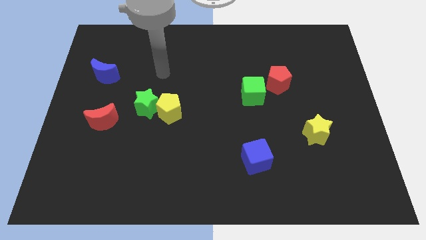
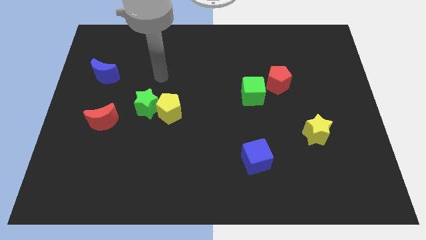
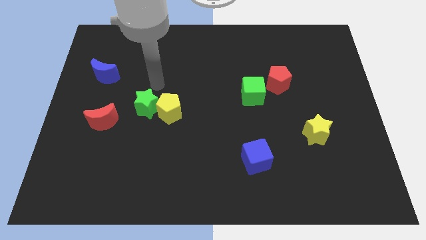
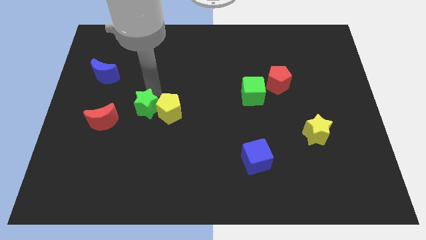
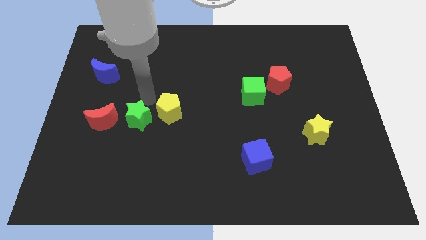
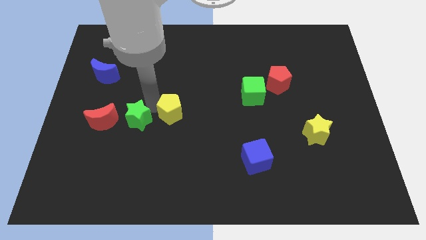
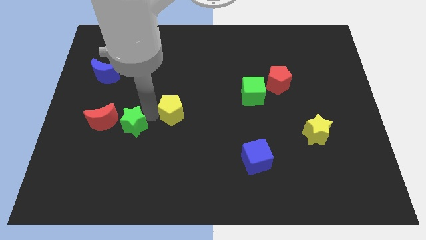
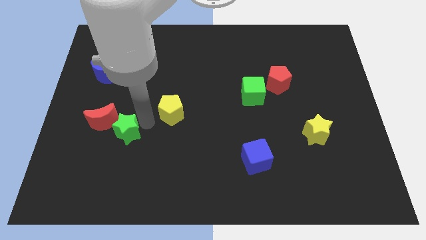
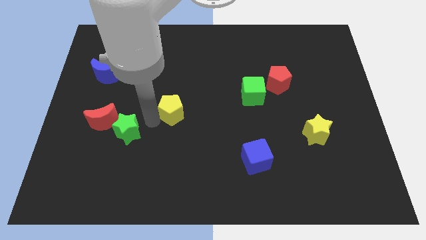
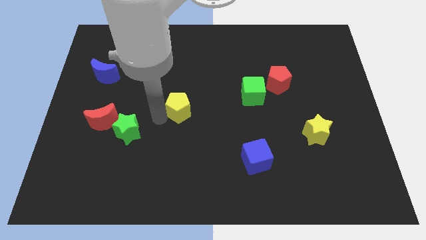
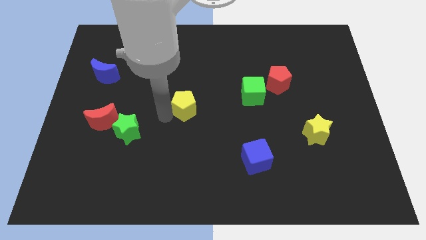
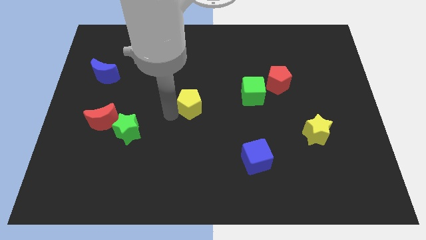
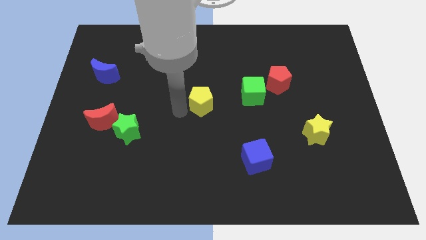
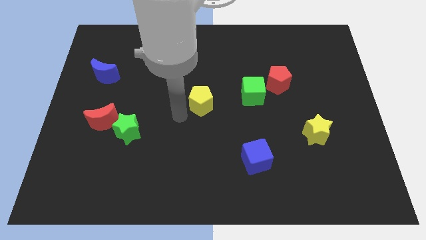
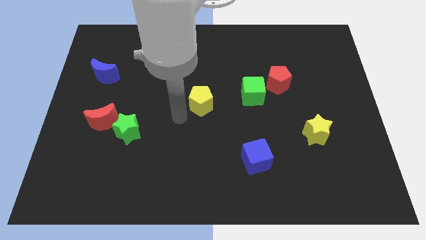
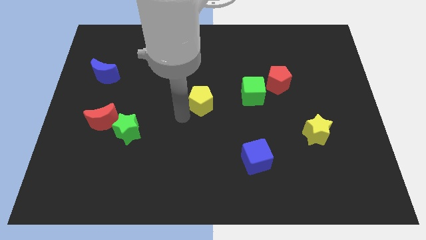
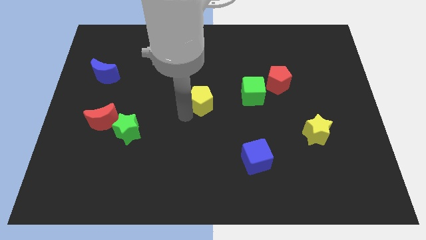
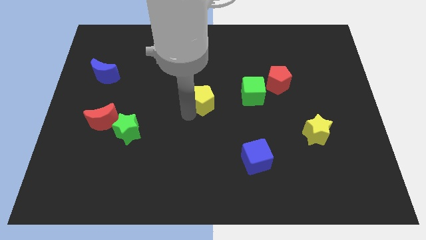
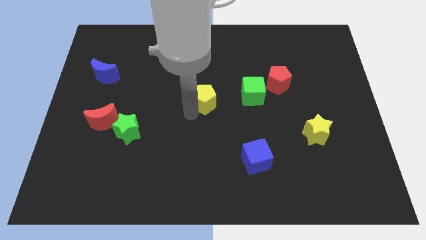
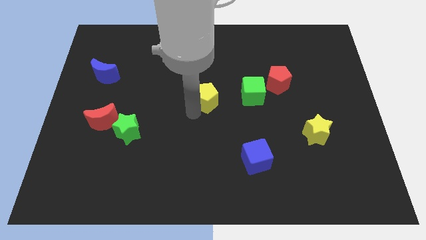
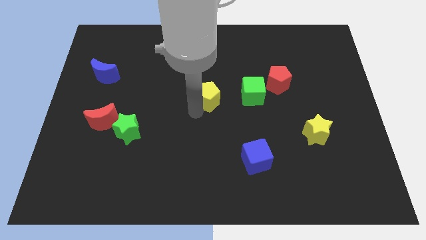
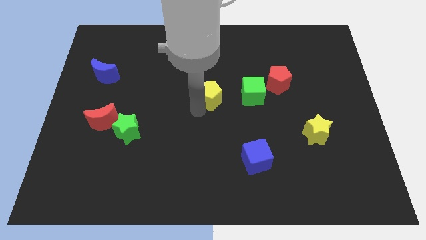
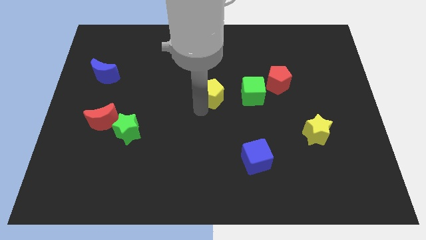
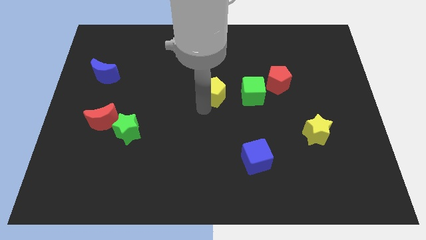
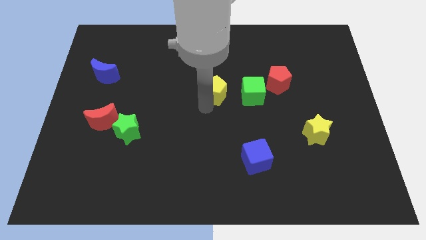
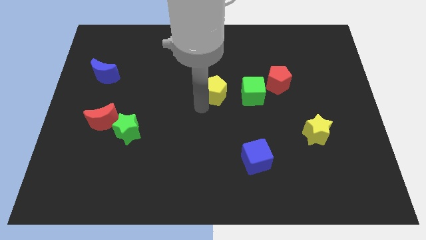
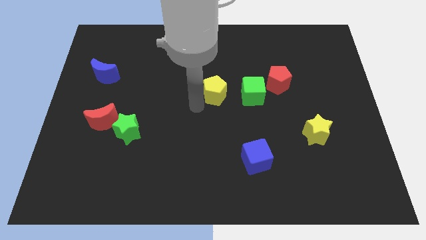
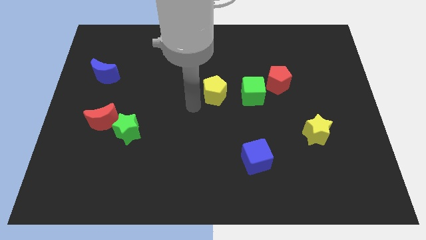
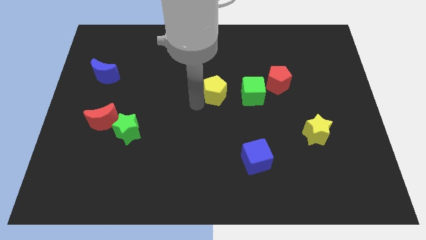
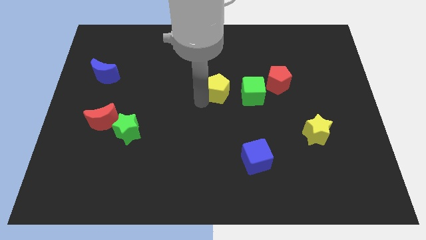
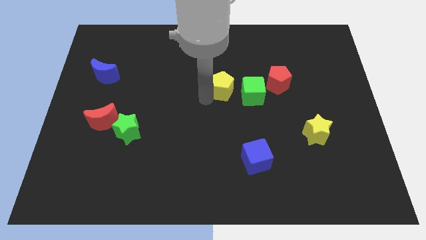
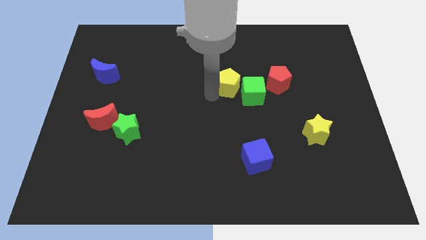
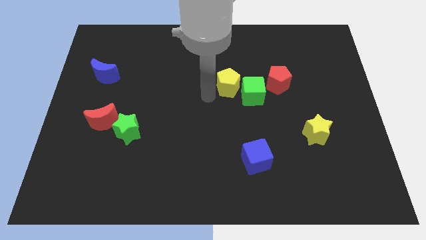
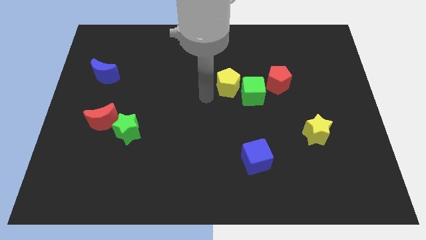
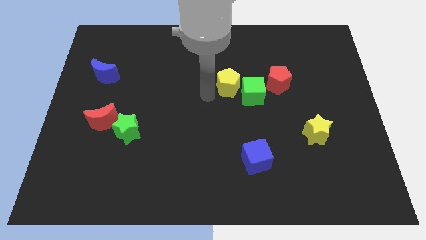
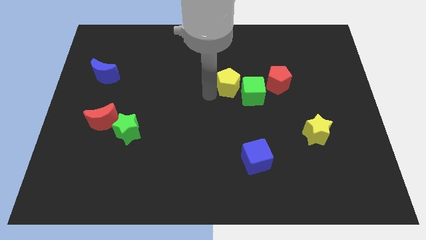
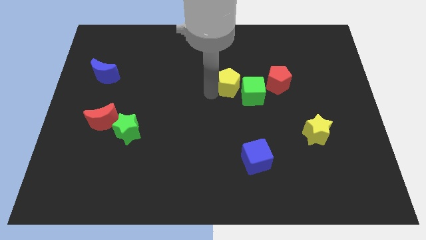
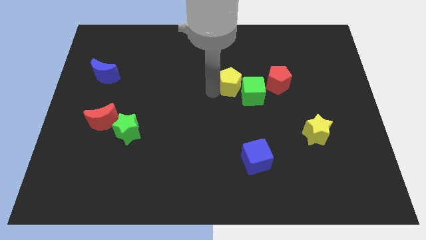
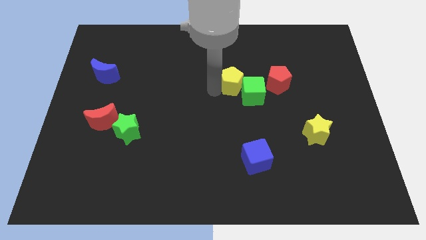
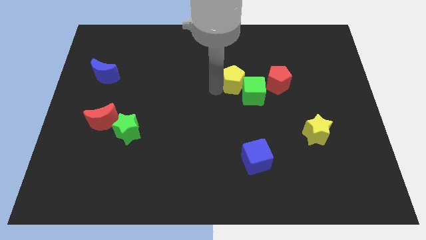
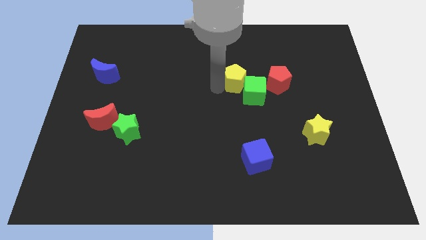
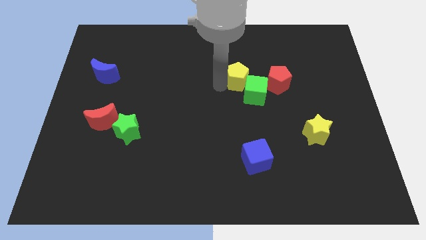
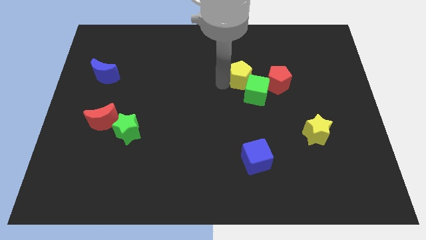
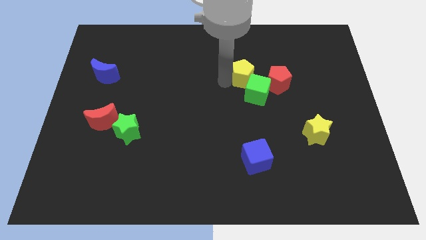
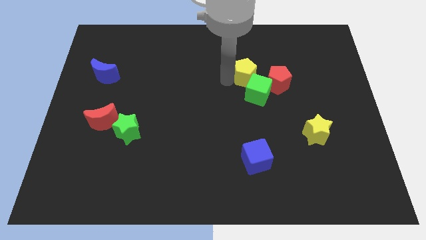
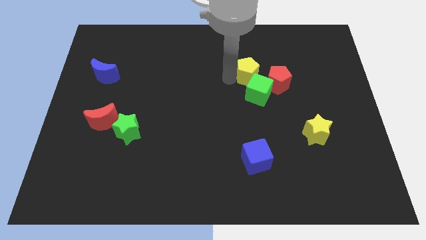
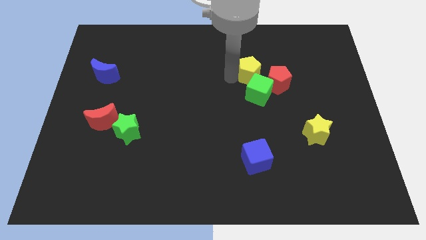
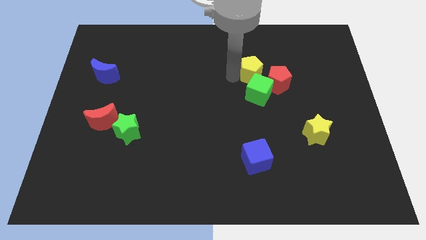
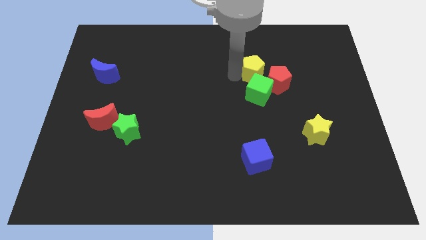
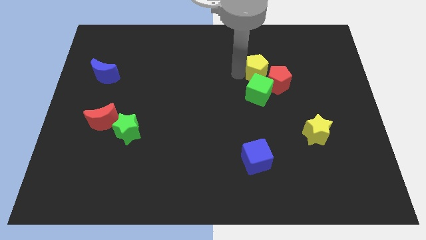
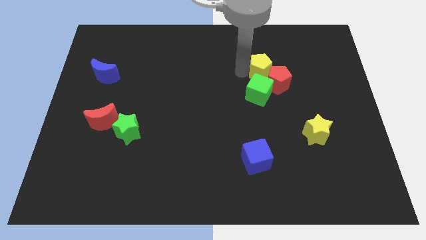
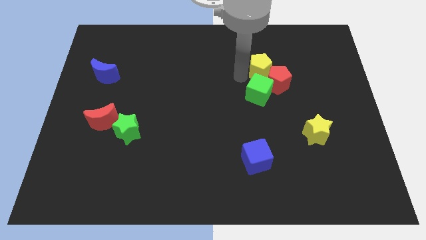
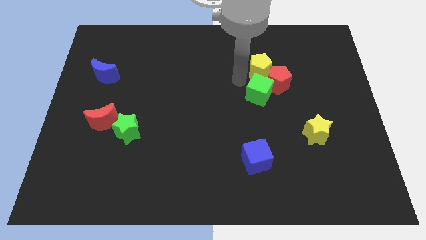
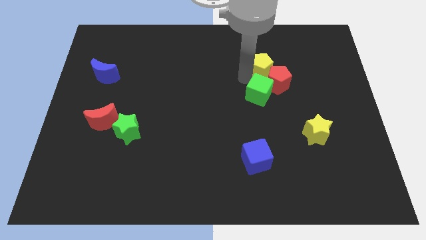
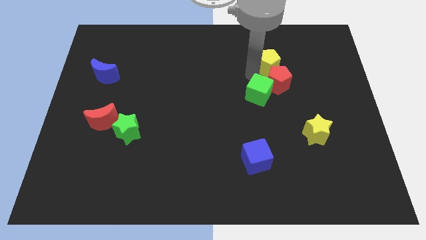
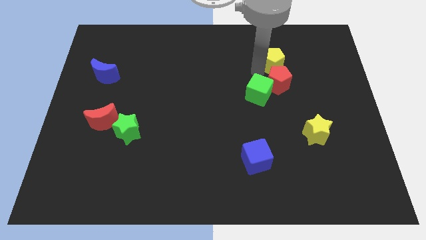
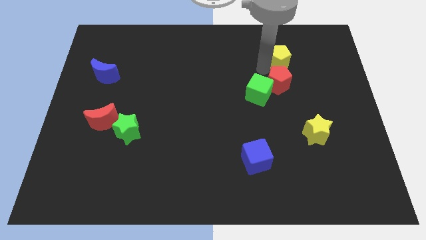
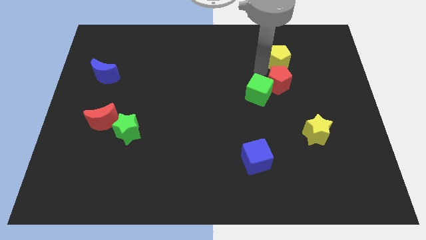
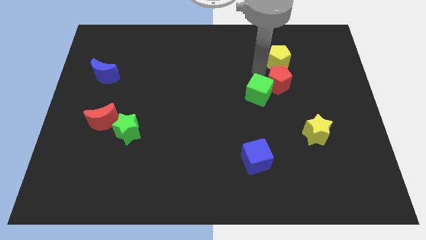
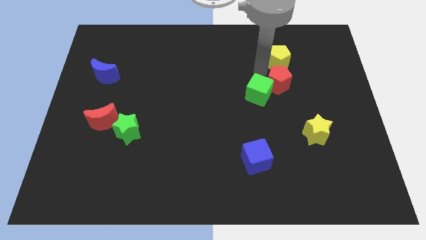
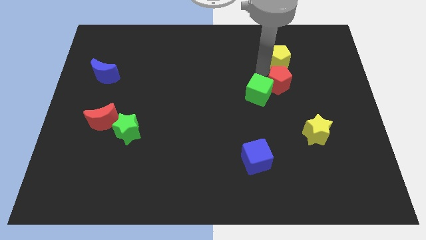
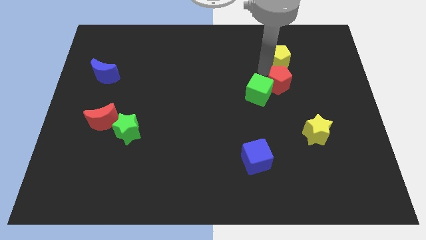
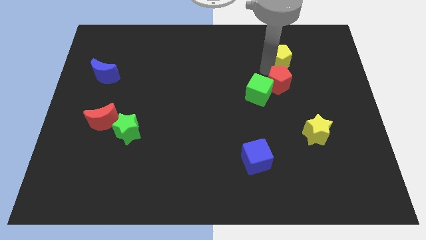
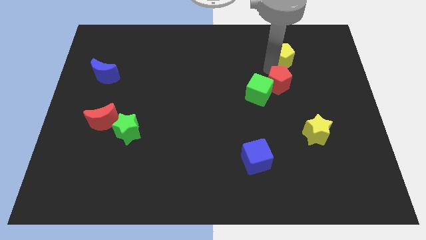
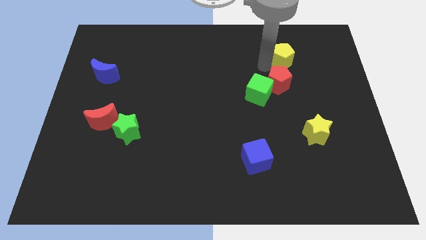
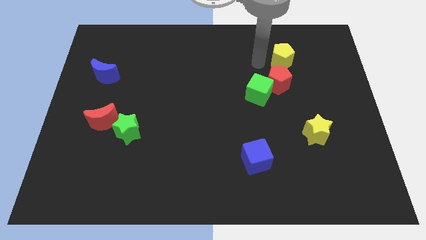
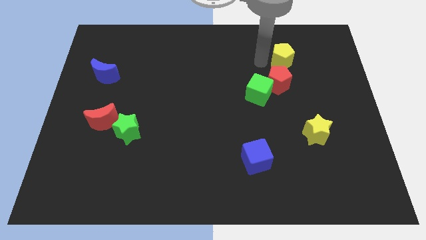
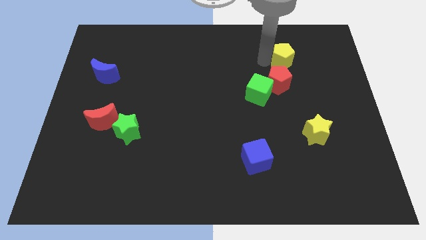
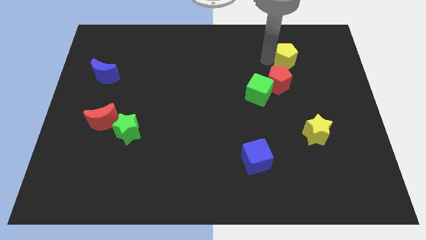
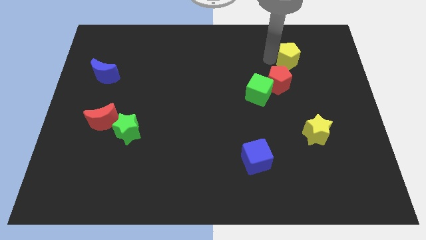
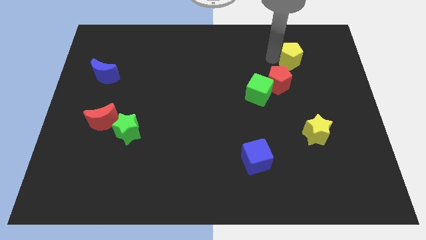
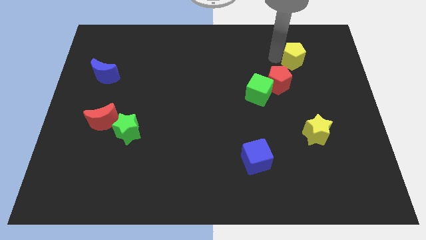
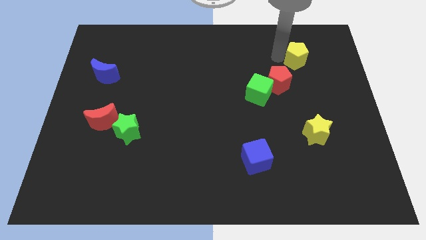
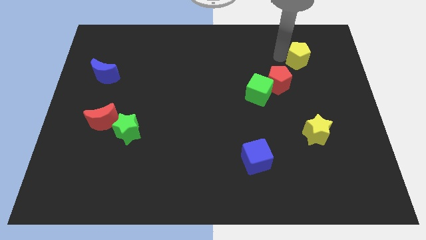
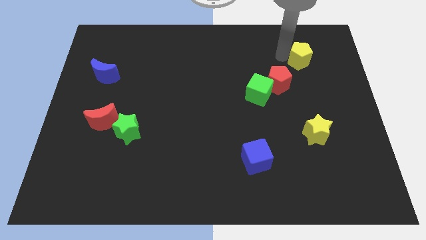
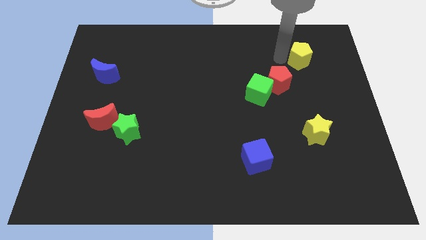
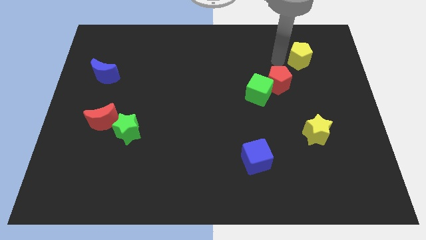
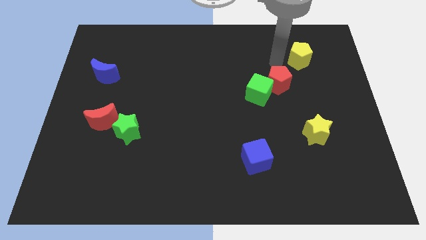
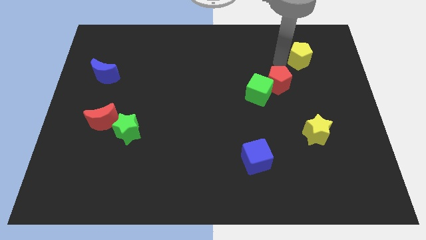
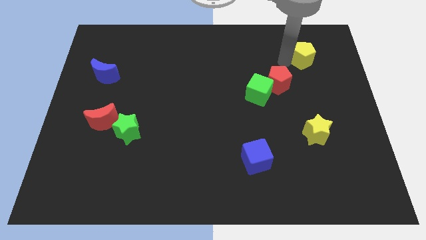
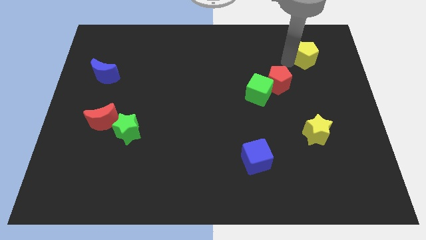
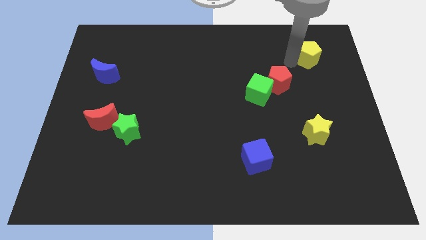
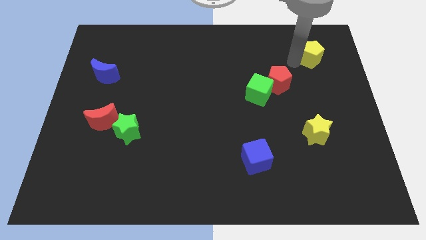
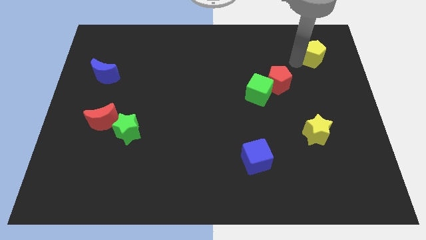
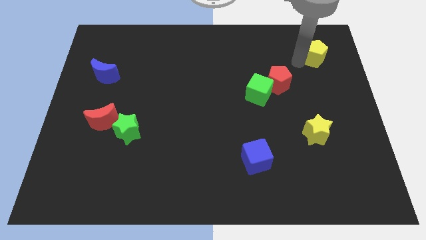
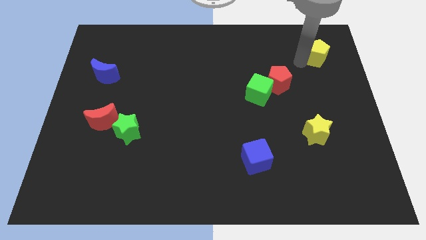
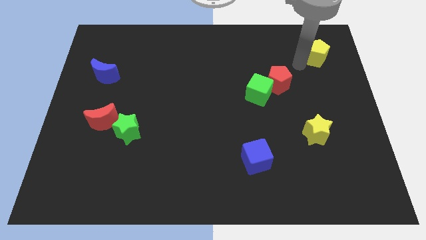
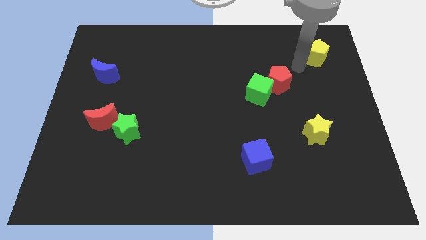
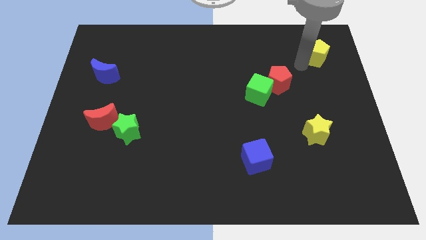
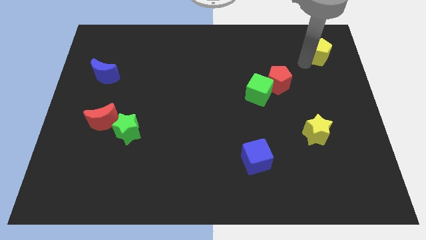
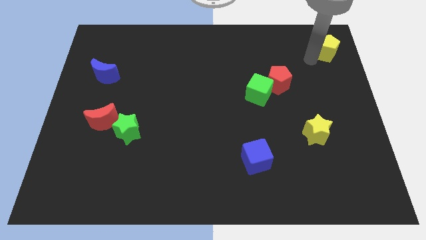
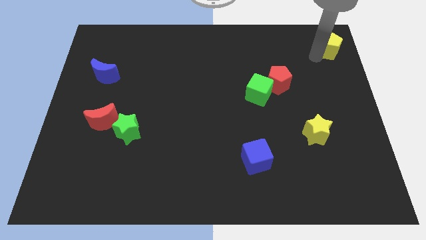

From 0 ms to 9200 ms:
move the yellow pentagon to the upper right corner
